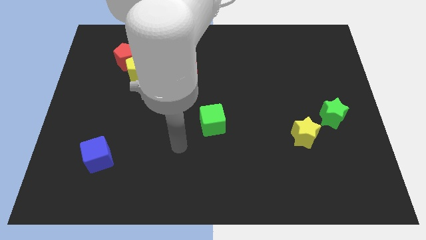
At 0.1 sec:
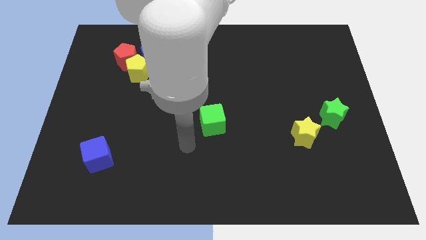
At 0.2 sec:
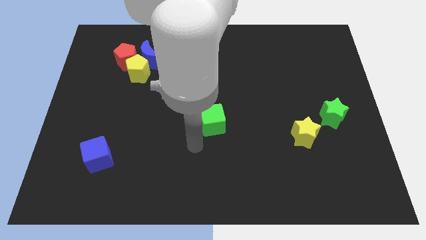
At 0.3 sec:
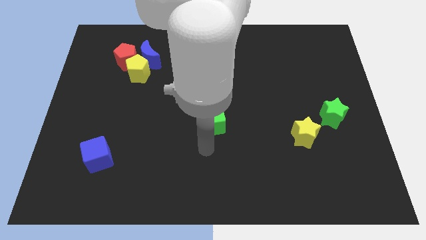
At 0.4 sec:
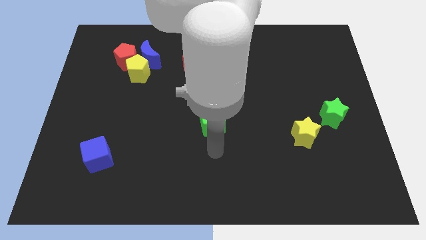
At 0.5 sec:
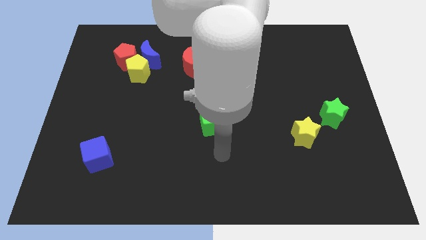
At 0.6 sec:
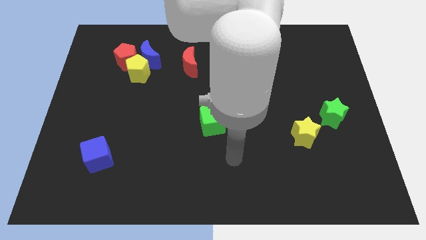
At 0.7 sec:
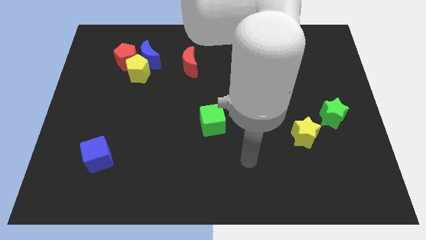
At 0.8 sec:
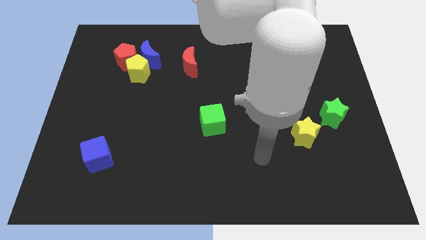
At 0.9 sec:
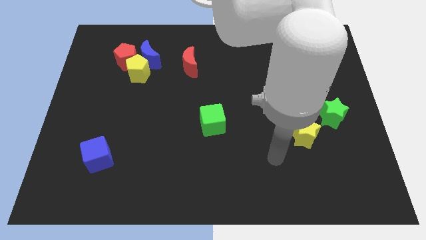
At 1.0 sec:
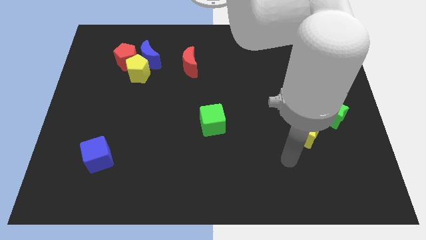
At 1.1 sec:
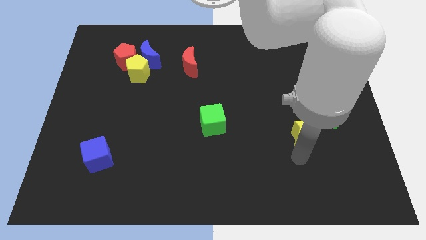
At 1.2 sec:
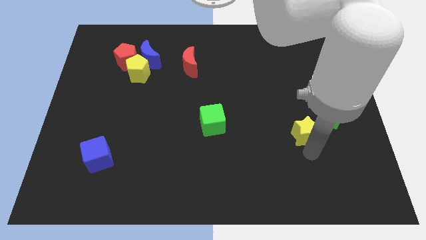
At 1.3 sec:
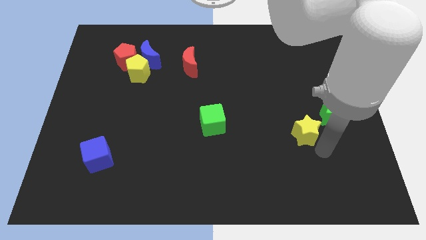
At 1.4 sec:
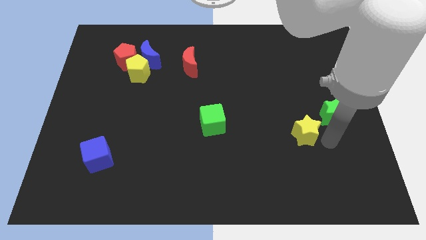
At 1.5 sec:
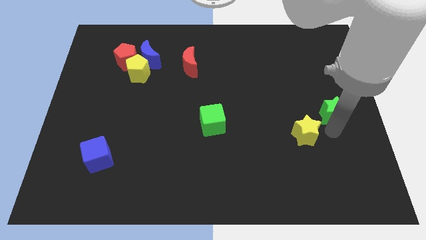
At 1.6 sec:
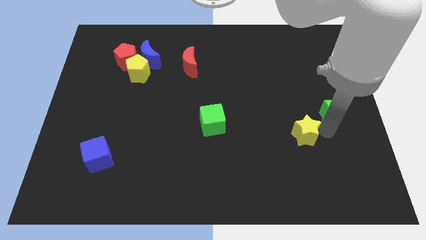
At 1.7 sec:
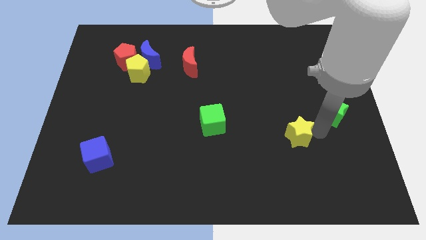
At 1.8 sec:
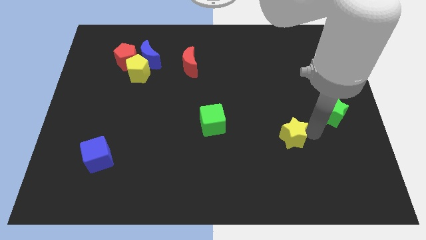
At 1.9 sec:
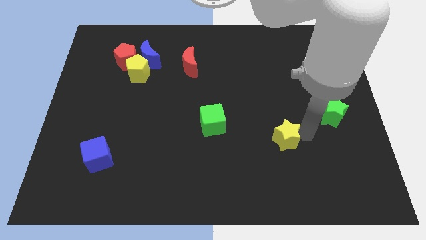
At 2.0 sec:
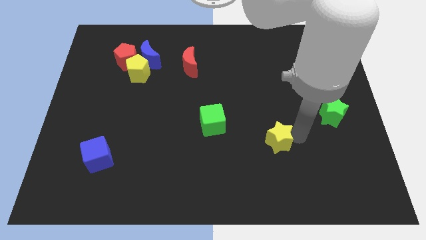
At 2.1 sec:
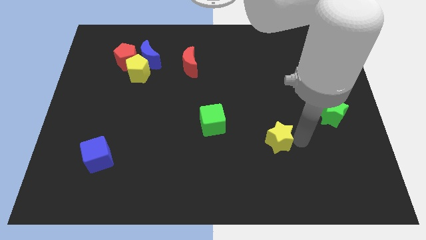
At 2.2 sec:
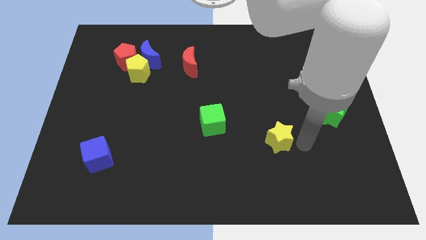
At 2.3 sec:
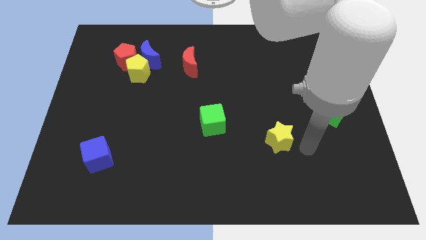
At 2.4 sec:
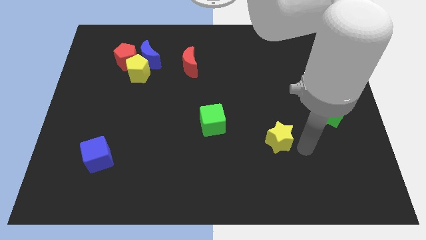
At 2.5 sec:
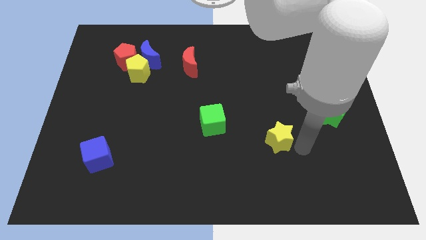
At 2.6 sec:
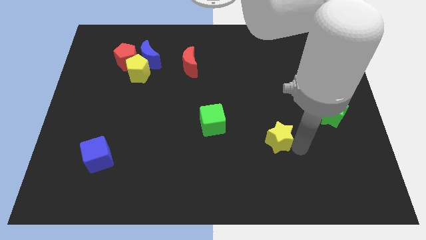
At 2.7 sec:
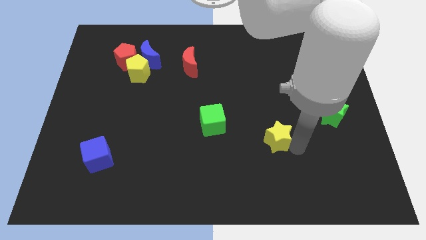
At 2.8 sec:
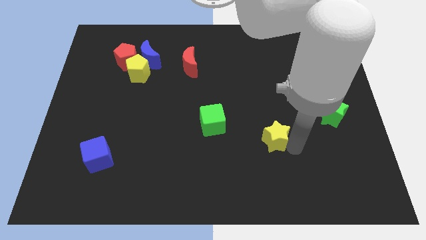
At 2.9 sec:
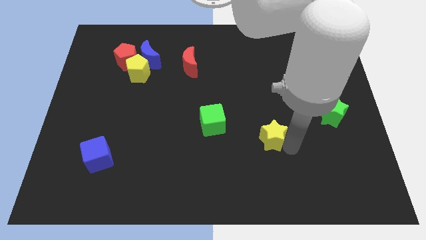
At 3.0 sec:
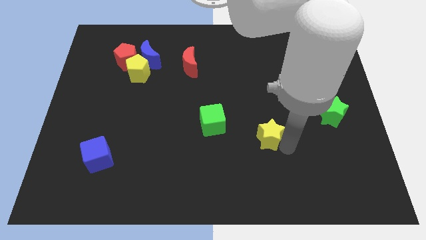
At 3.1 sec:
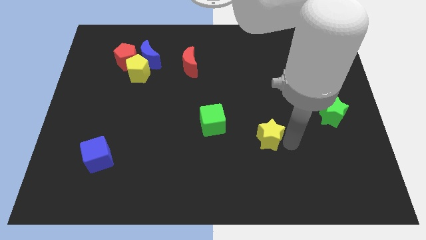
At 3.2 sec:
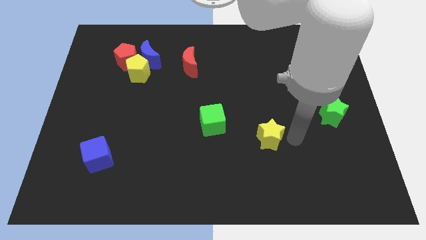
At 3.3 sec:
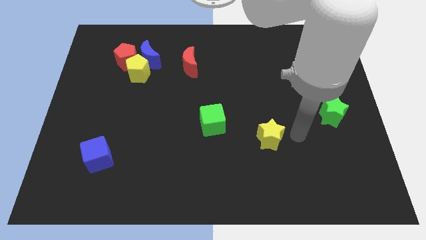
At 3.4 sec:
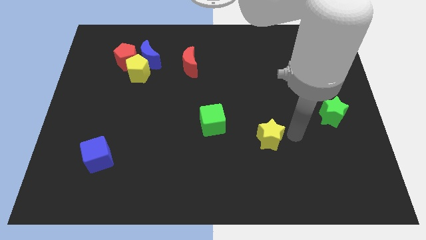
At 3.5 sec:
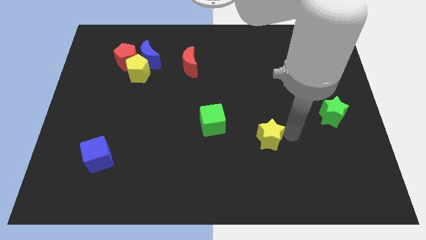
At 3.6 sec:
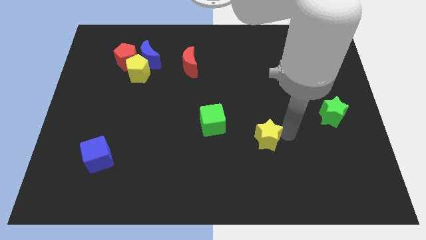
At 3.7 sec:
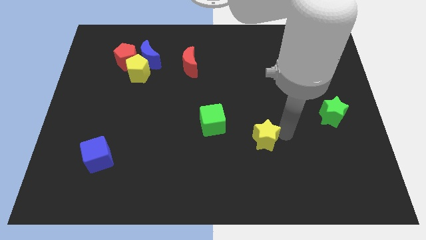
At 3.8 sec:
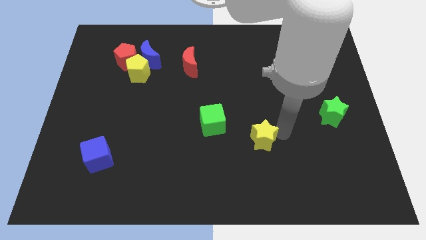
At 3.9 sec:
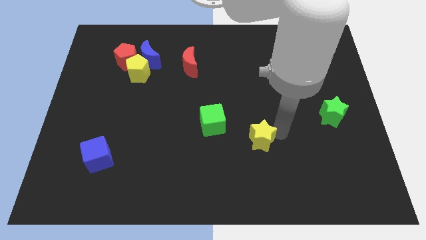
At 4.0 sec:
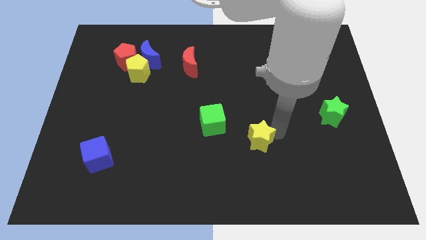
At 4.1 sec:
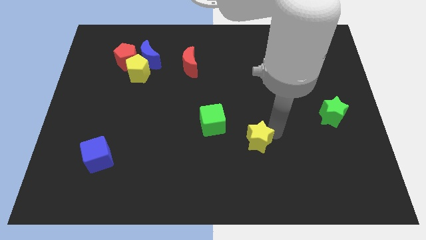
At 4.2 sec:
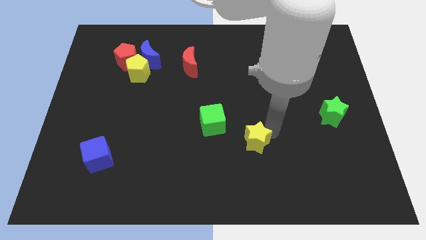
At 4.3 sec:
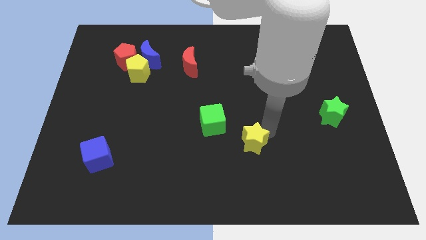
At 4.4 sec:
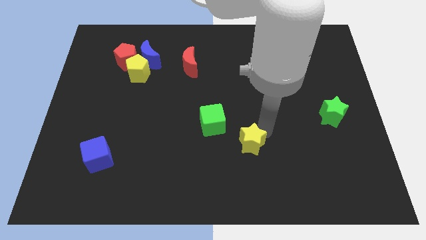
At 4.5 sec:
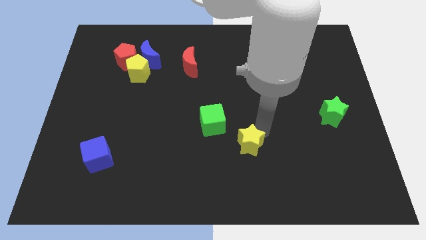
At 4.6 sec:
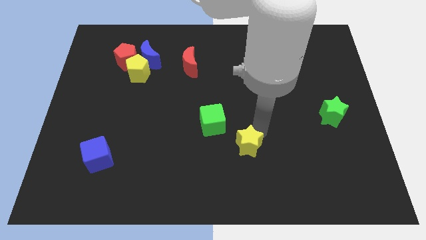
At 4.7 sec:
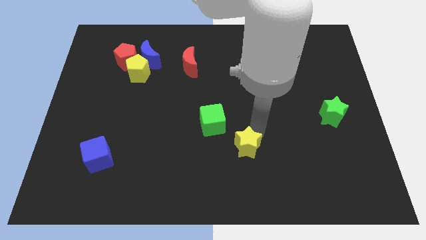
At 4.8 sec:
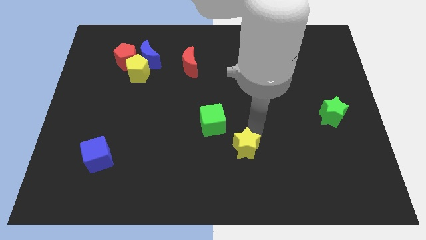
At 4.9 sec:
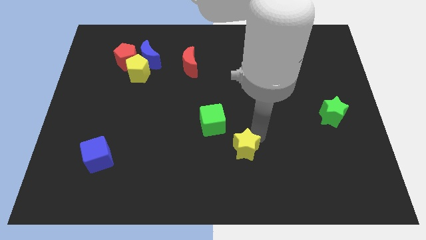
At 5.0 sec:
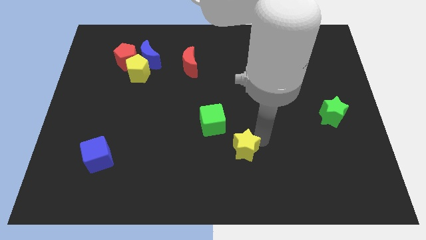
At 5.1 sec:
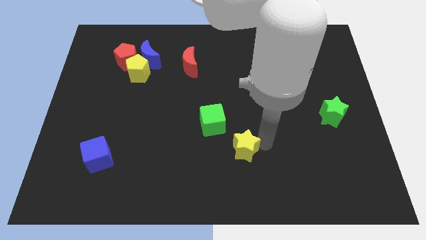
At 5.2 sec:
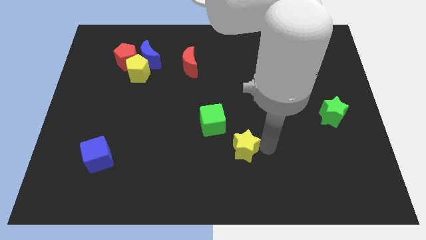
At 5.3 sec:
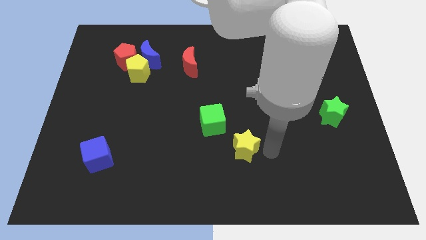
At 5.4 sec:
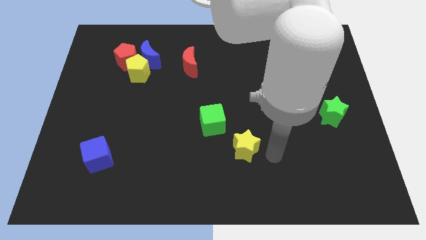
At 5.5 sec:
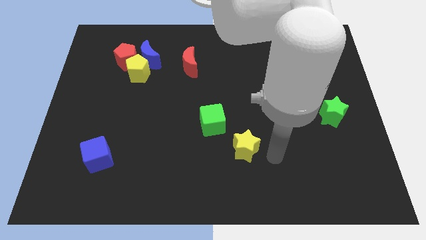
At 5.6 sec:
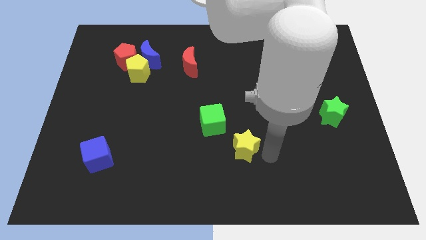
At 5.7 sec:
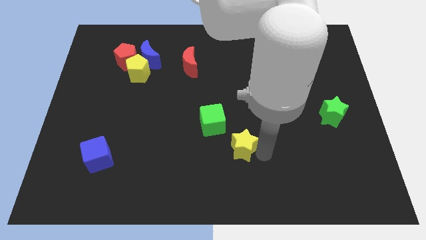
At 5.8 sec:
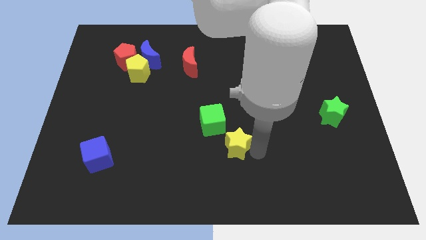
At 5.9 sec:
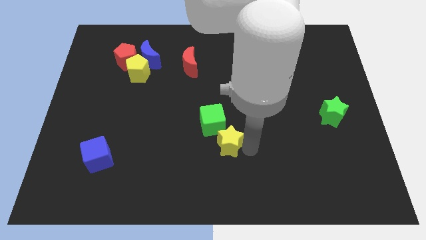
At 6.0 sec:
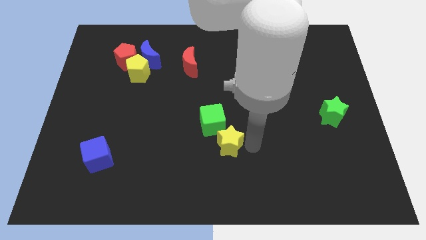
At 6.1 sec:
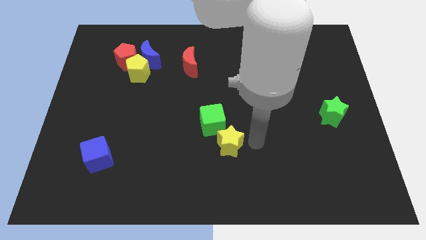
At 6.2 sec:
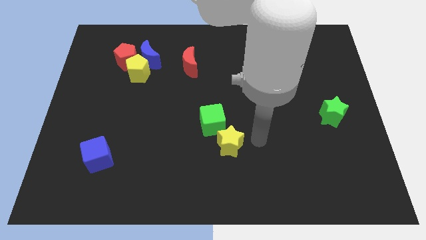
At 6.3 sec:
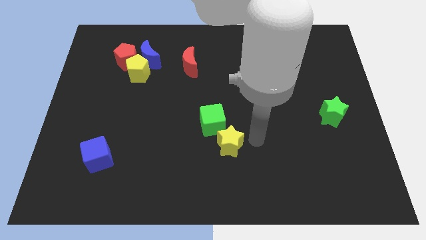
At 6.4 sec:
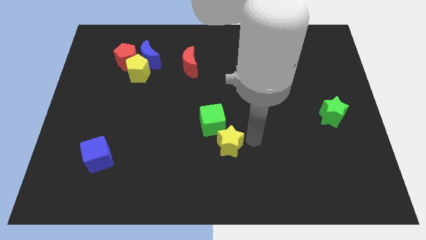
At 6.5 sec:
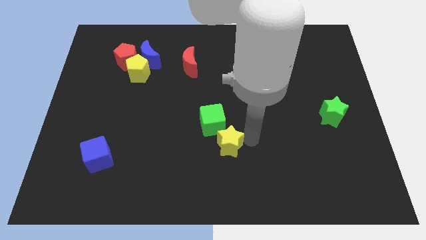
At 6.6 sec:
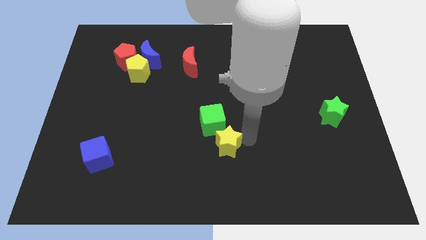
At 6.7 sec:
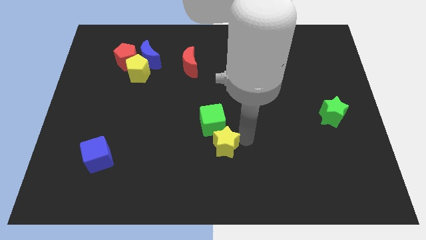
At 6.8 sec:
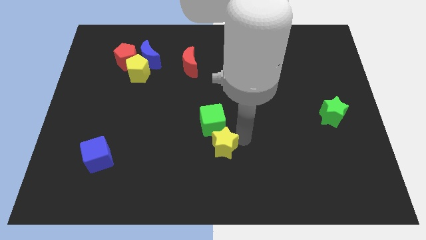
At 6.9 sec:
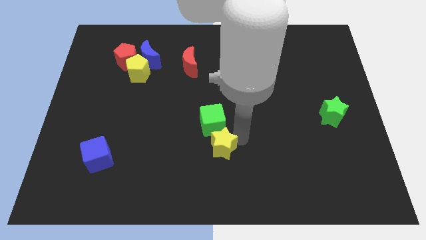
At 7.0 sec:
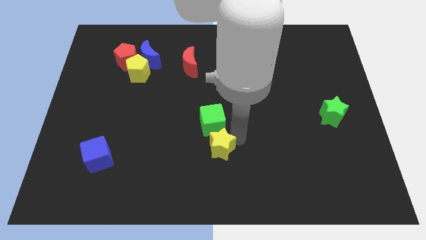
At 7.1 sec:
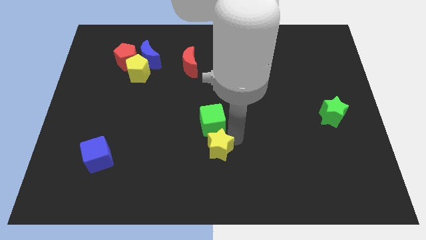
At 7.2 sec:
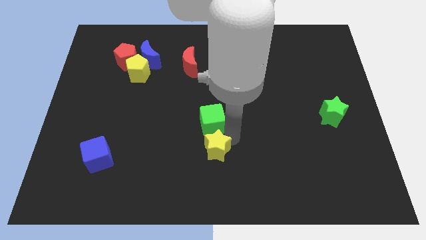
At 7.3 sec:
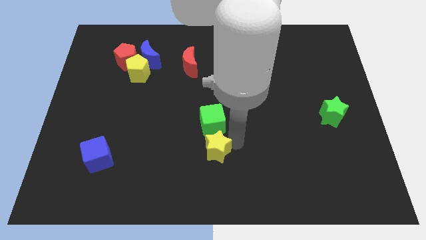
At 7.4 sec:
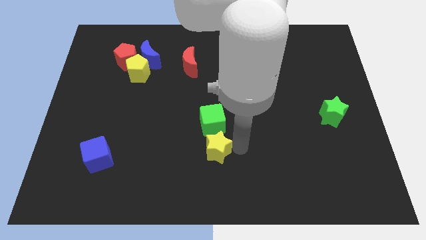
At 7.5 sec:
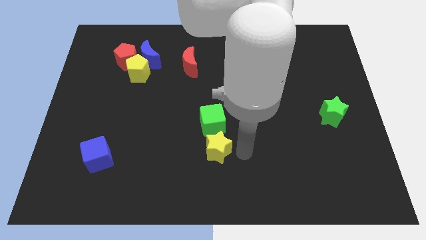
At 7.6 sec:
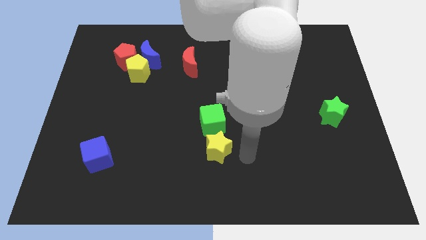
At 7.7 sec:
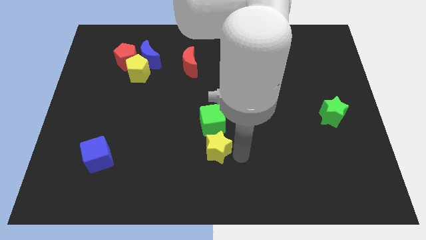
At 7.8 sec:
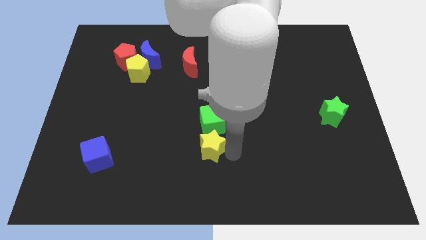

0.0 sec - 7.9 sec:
move the yellow star left

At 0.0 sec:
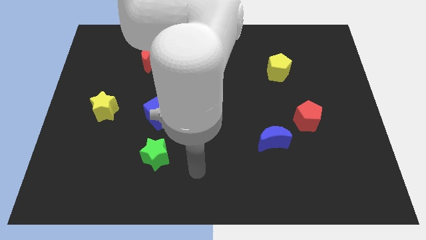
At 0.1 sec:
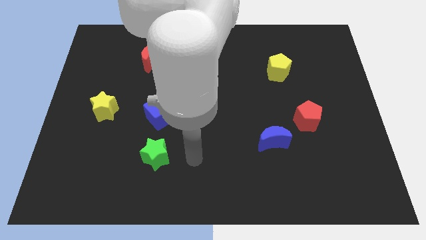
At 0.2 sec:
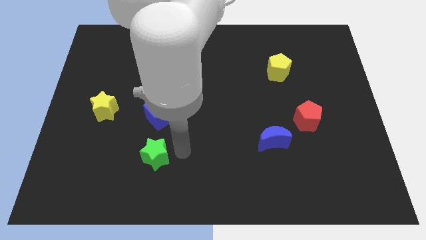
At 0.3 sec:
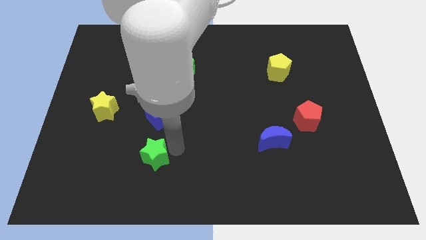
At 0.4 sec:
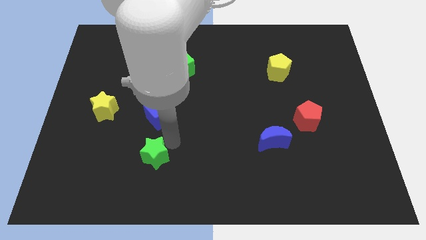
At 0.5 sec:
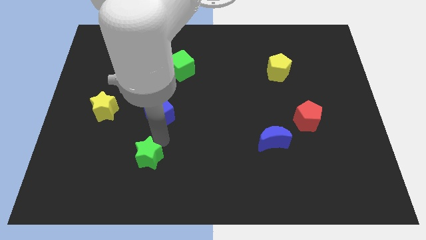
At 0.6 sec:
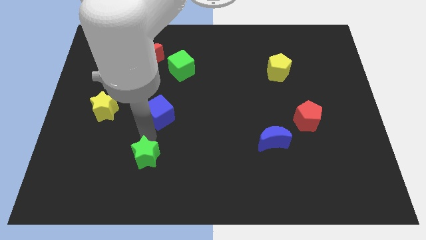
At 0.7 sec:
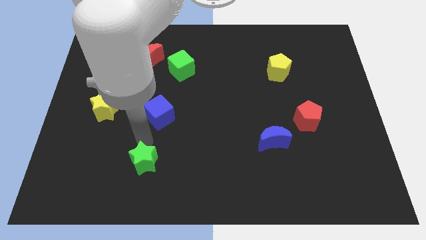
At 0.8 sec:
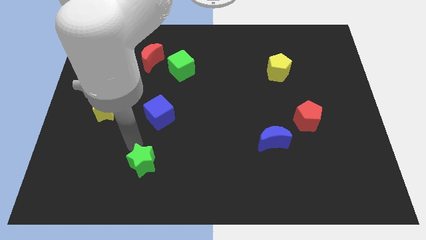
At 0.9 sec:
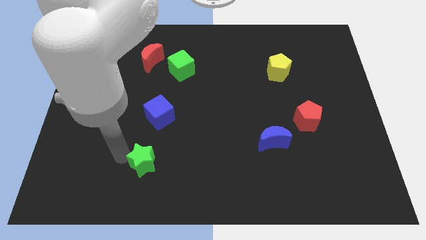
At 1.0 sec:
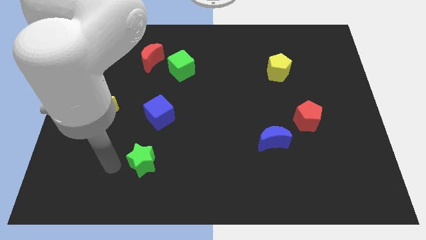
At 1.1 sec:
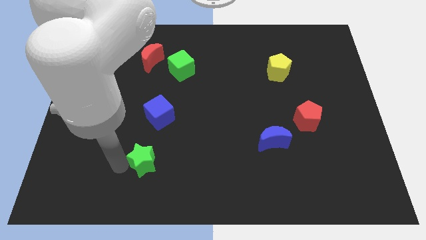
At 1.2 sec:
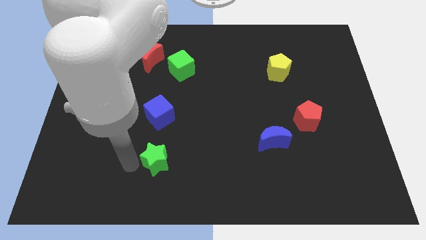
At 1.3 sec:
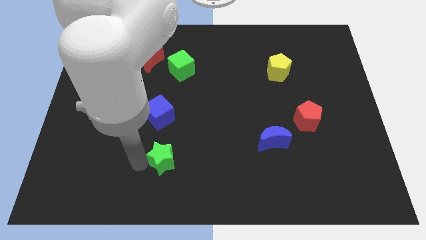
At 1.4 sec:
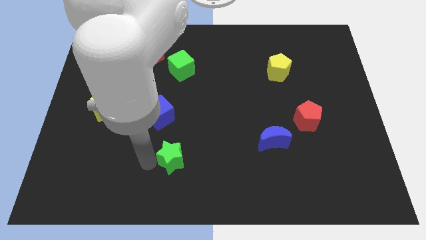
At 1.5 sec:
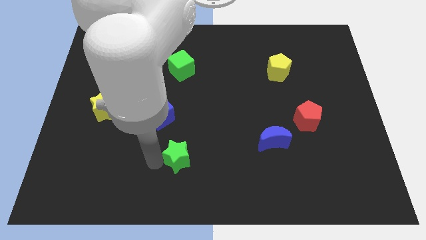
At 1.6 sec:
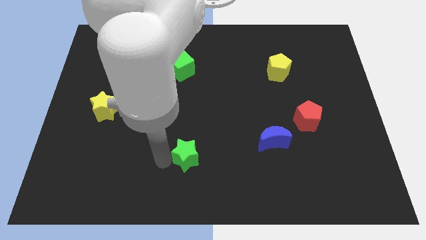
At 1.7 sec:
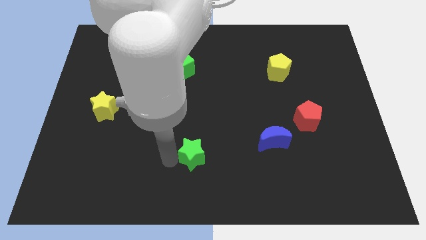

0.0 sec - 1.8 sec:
slightly push the green star to the right
